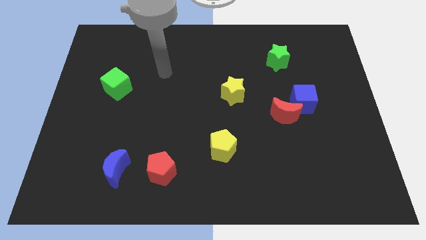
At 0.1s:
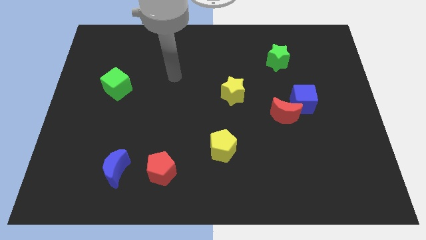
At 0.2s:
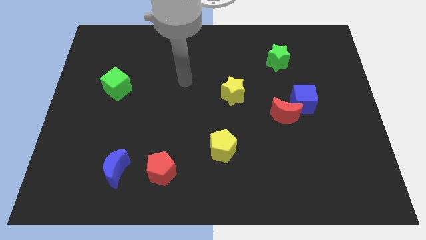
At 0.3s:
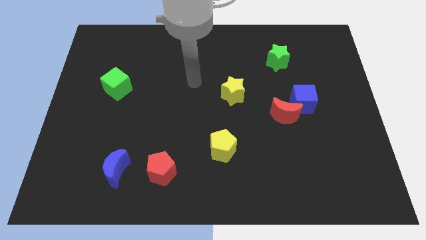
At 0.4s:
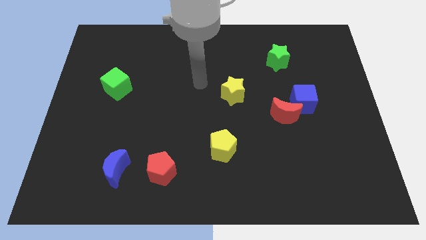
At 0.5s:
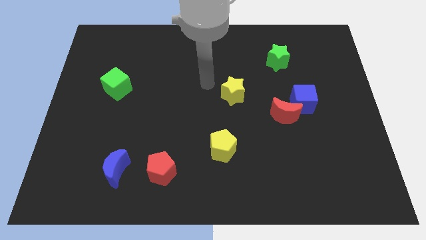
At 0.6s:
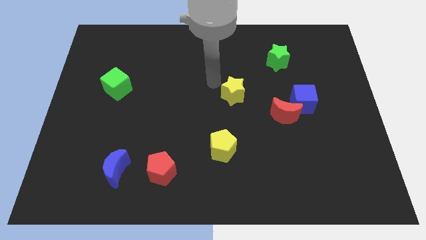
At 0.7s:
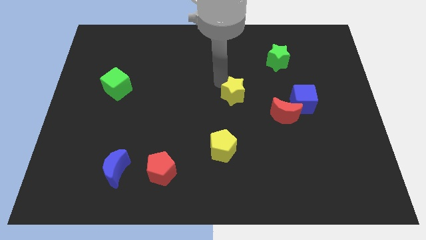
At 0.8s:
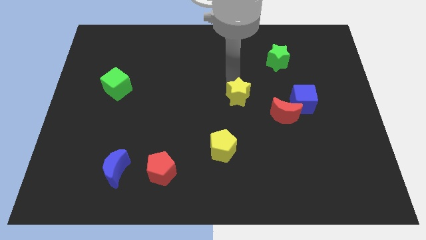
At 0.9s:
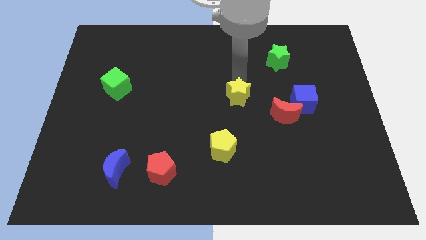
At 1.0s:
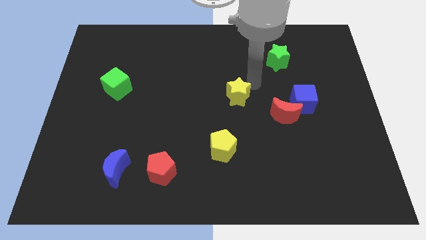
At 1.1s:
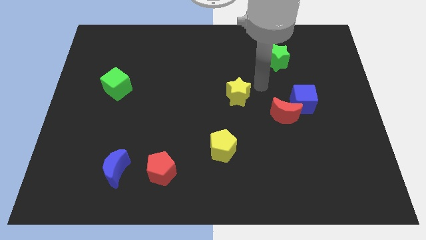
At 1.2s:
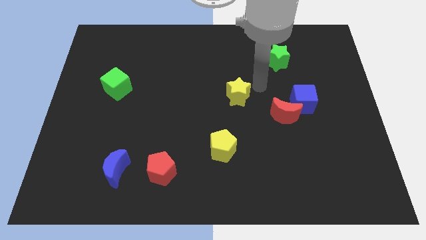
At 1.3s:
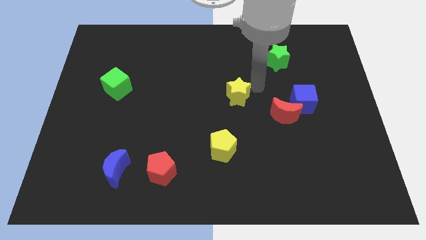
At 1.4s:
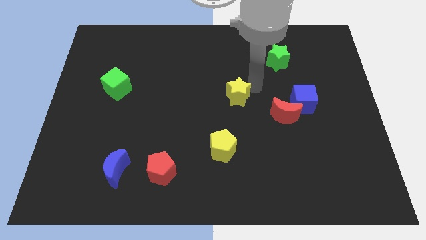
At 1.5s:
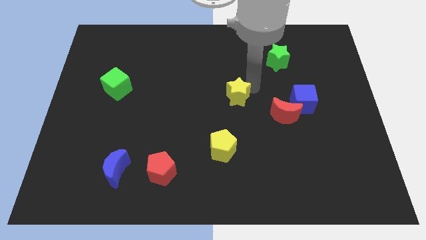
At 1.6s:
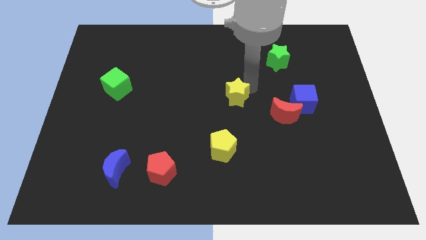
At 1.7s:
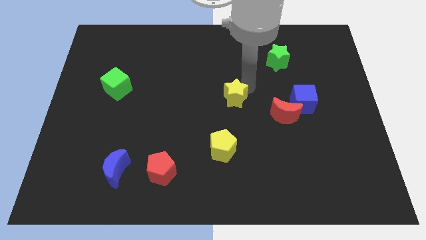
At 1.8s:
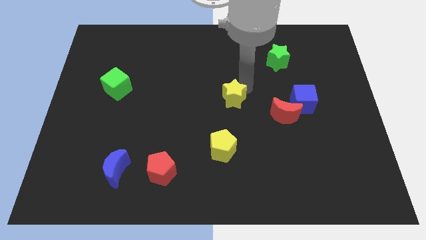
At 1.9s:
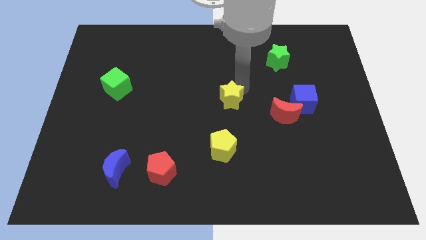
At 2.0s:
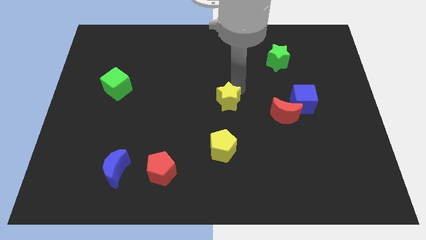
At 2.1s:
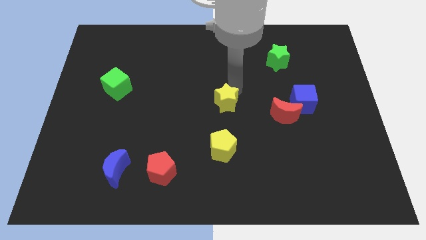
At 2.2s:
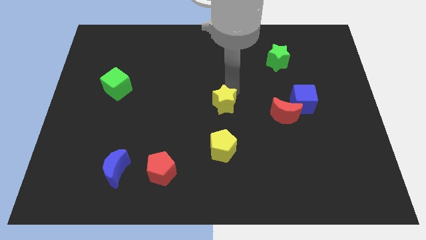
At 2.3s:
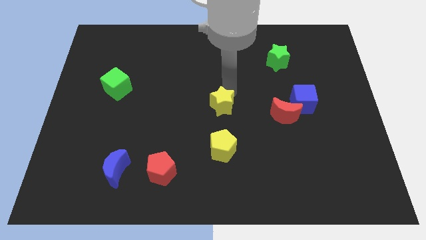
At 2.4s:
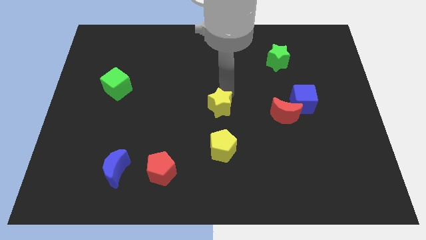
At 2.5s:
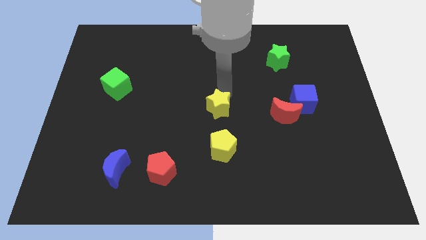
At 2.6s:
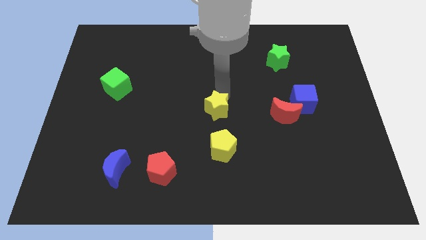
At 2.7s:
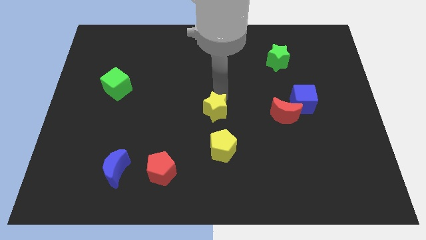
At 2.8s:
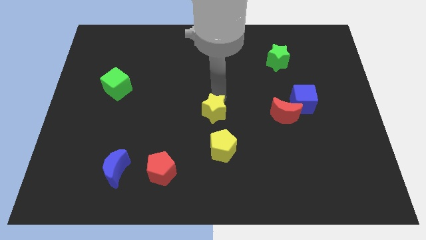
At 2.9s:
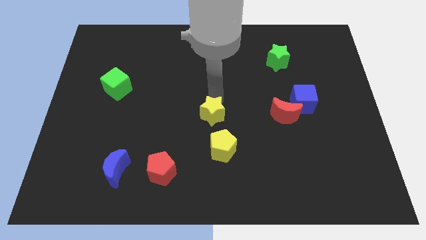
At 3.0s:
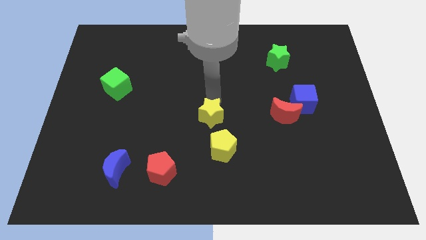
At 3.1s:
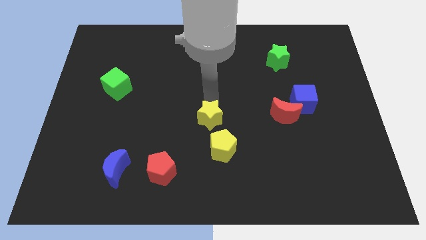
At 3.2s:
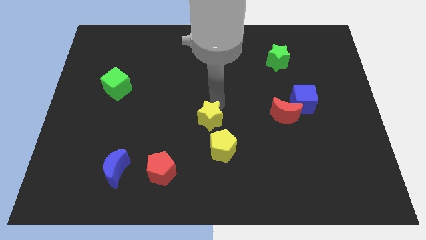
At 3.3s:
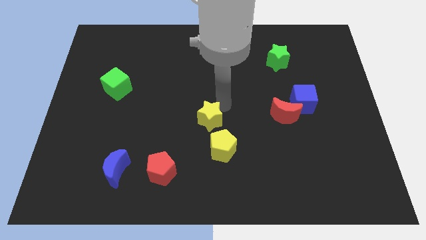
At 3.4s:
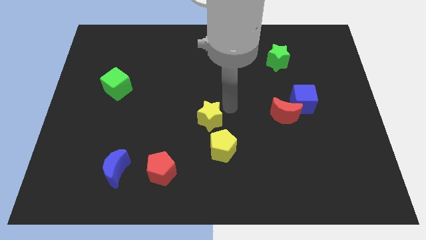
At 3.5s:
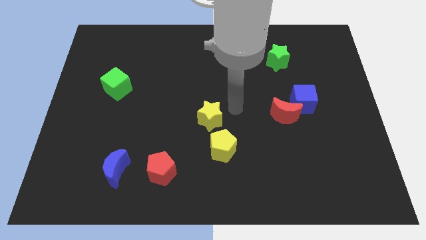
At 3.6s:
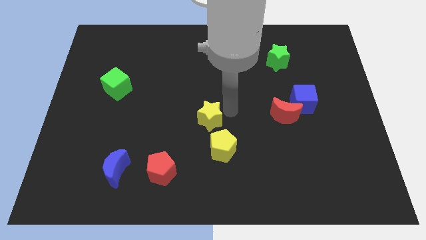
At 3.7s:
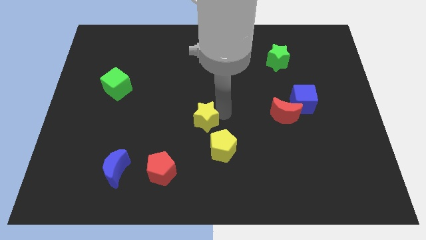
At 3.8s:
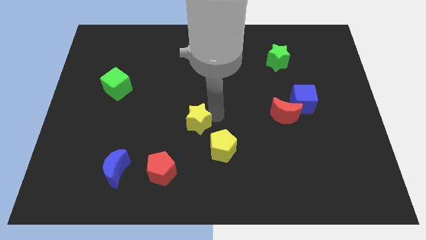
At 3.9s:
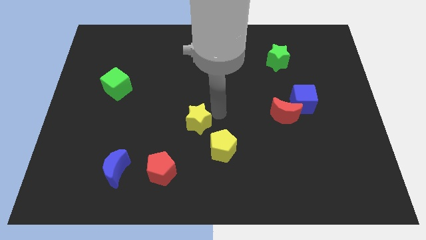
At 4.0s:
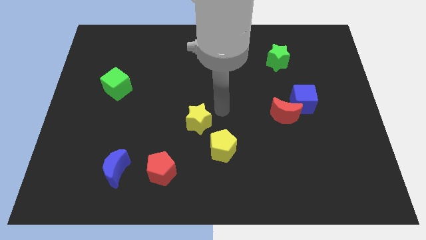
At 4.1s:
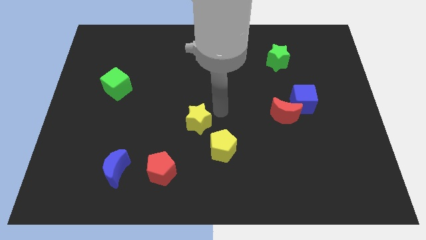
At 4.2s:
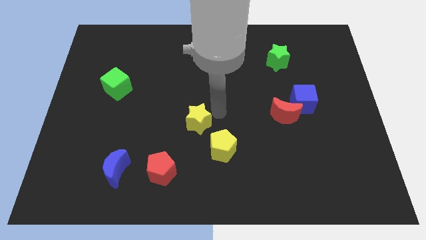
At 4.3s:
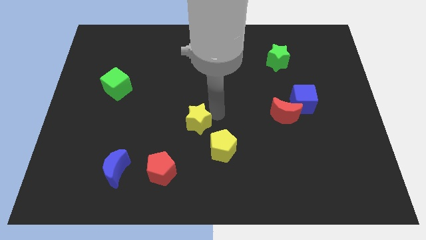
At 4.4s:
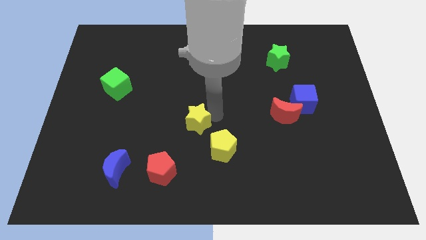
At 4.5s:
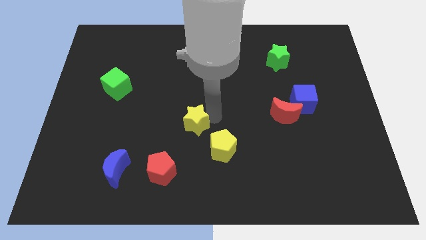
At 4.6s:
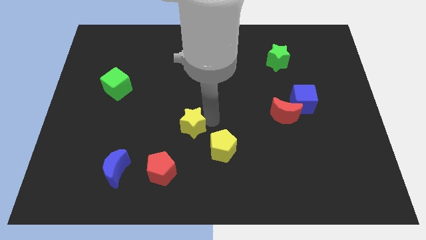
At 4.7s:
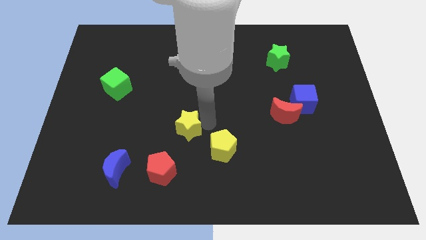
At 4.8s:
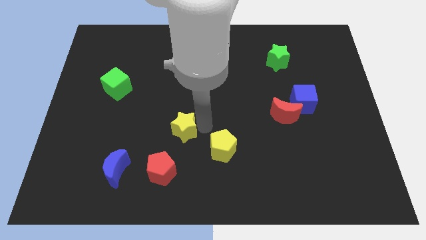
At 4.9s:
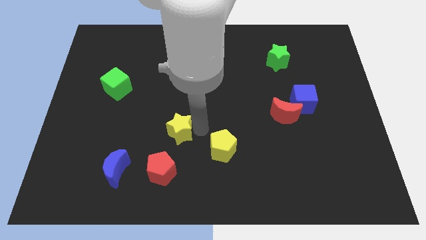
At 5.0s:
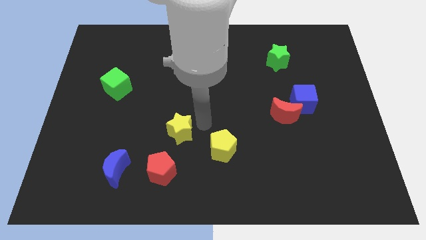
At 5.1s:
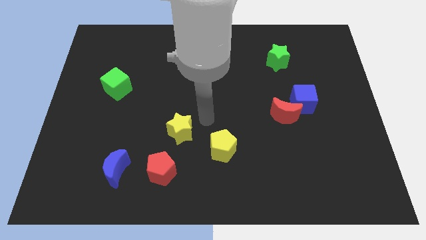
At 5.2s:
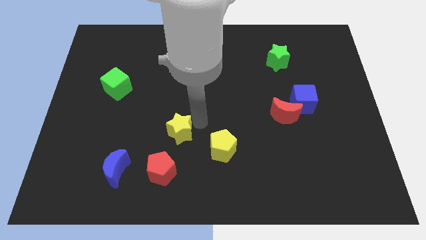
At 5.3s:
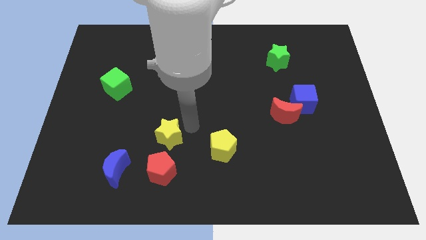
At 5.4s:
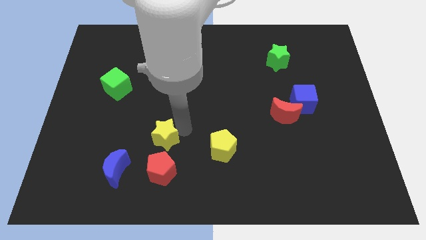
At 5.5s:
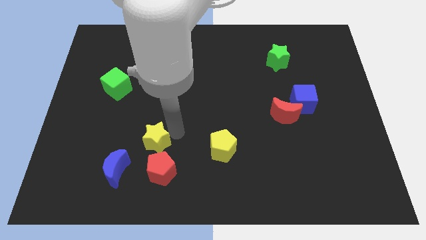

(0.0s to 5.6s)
push the yellow star diagonally up and to the left of the red pentagon
